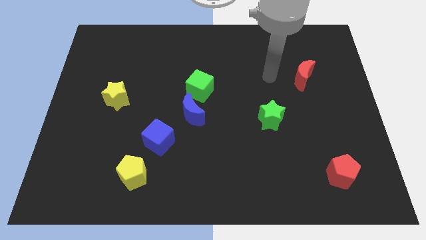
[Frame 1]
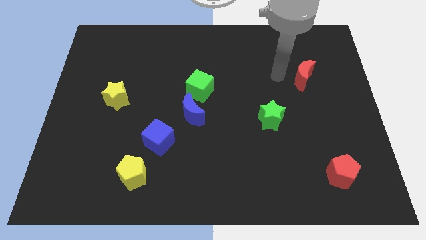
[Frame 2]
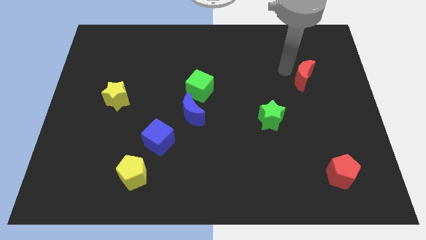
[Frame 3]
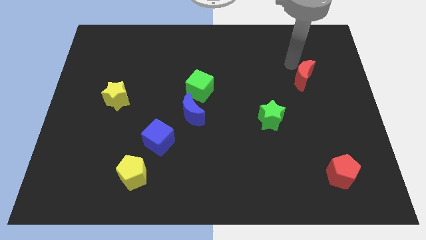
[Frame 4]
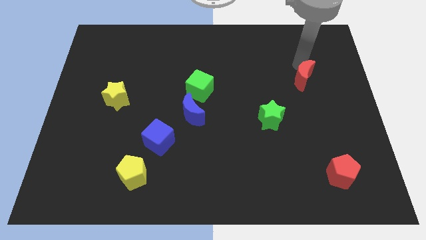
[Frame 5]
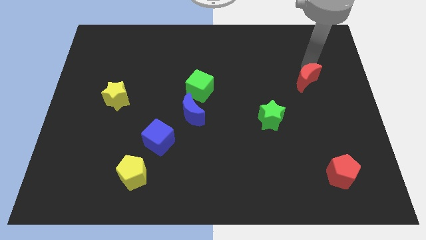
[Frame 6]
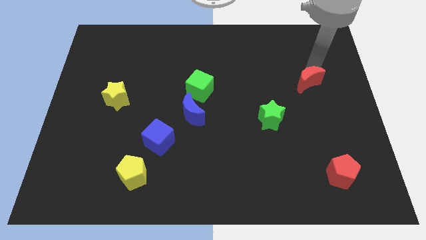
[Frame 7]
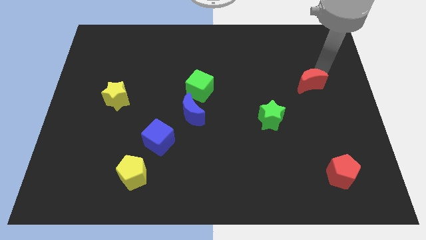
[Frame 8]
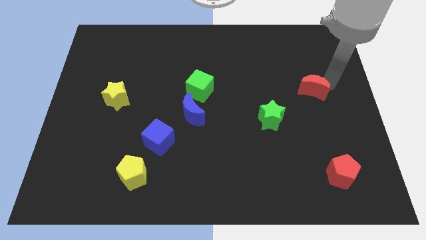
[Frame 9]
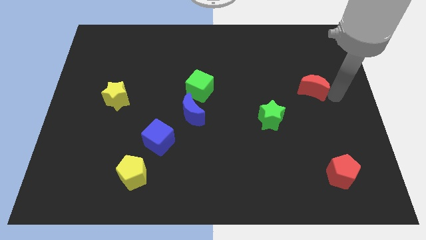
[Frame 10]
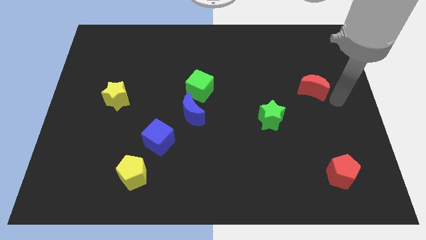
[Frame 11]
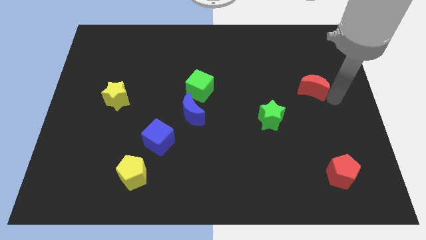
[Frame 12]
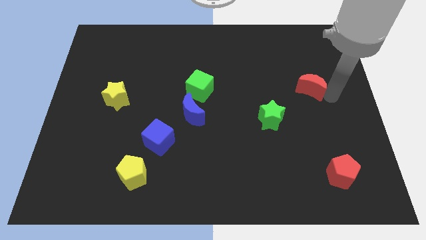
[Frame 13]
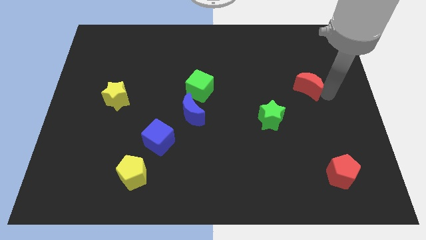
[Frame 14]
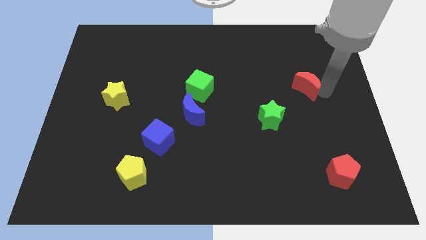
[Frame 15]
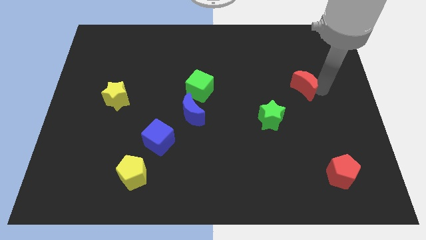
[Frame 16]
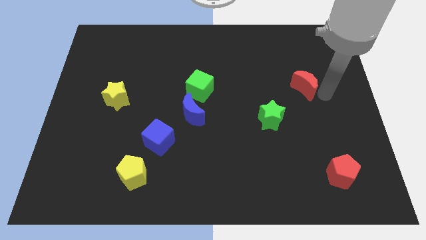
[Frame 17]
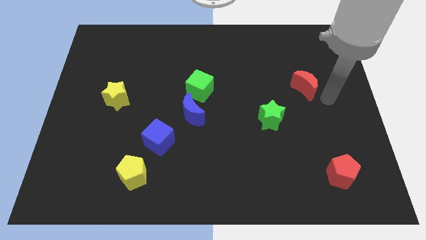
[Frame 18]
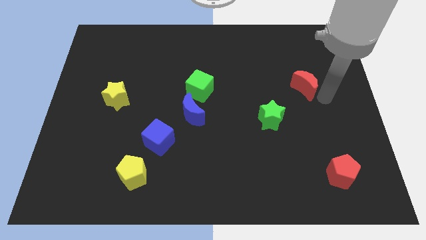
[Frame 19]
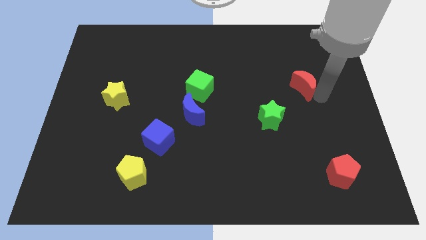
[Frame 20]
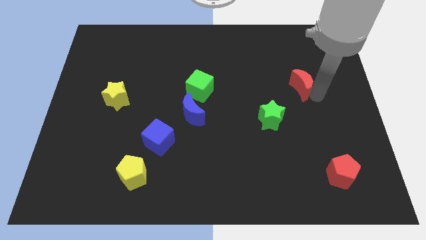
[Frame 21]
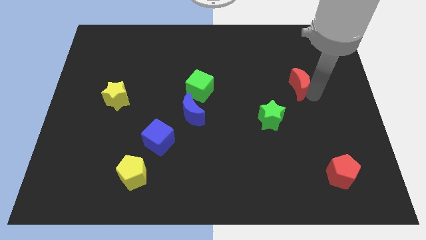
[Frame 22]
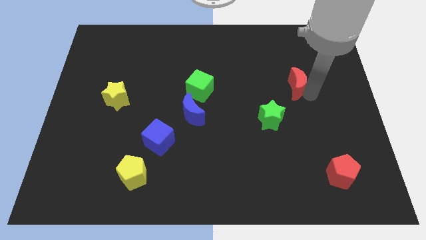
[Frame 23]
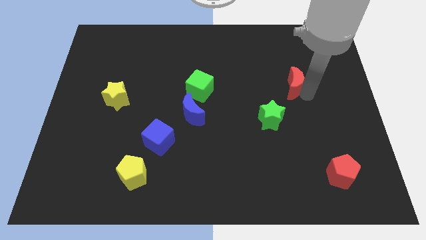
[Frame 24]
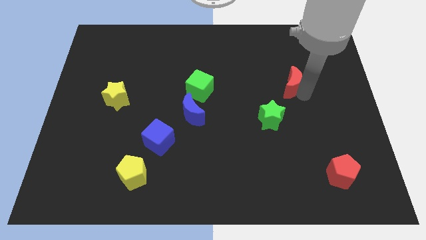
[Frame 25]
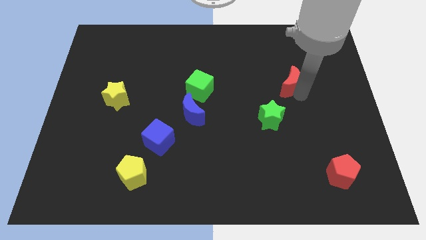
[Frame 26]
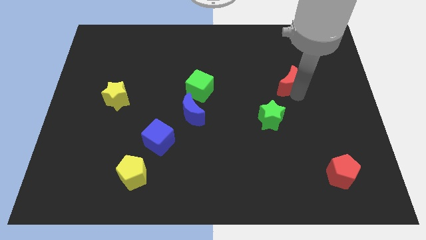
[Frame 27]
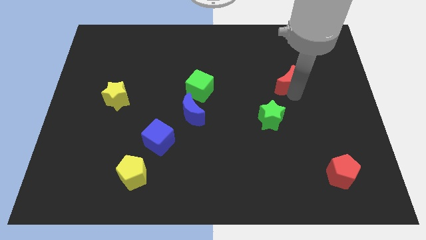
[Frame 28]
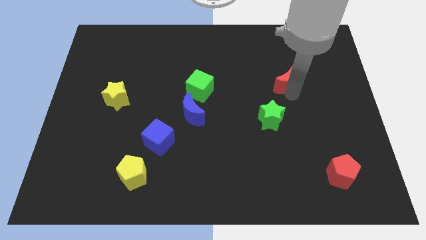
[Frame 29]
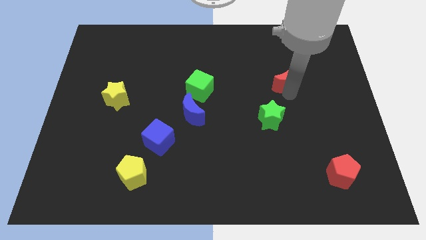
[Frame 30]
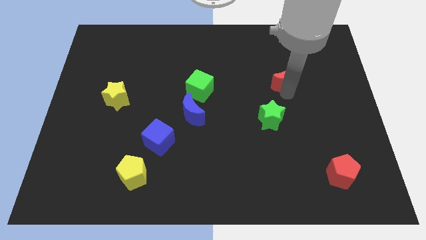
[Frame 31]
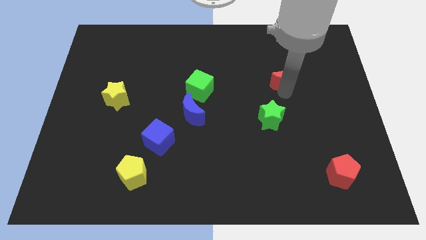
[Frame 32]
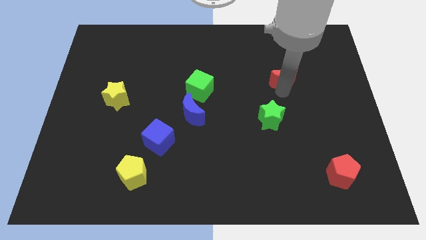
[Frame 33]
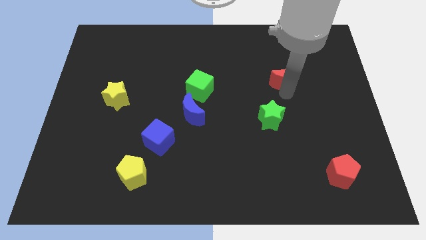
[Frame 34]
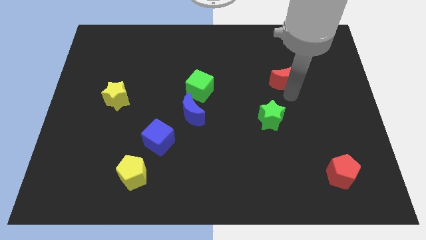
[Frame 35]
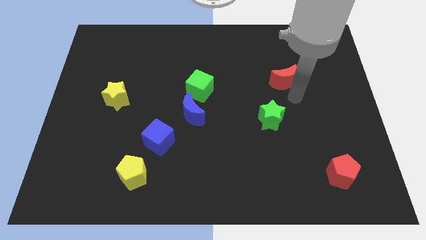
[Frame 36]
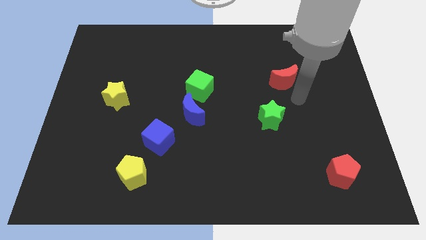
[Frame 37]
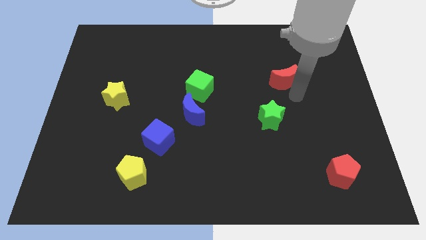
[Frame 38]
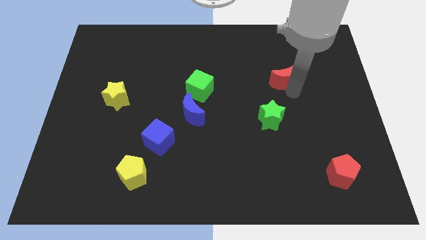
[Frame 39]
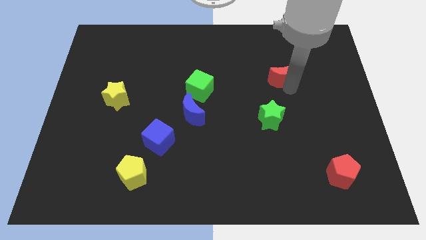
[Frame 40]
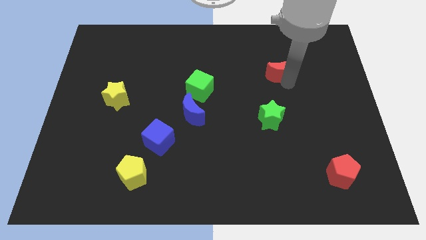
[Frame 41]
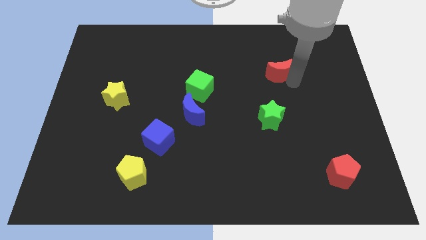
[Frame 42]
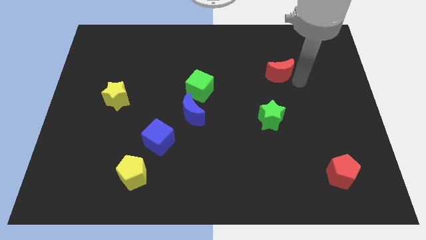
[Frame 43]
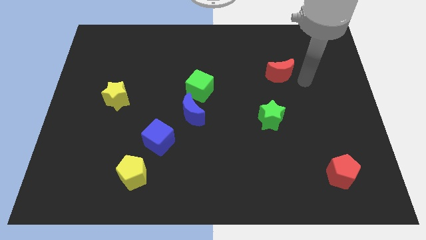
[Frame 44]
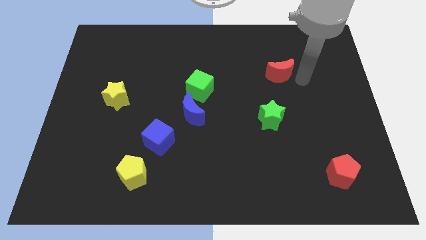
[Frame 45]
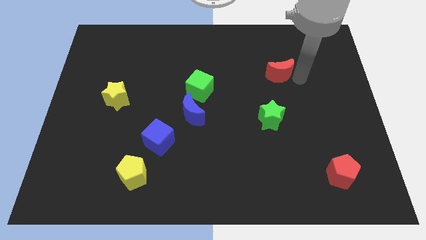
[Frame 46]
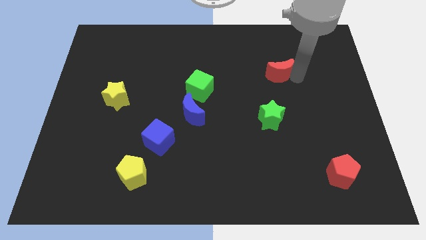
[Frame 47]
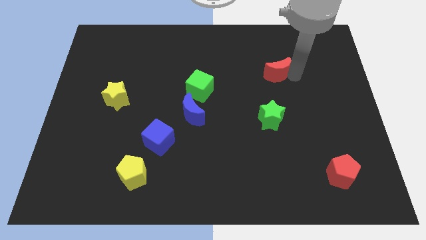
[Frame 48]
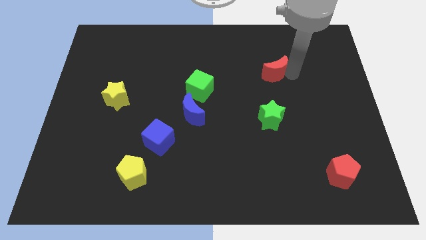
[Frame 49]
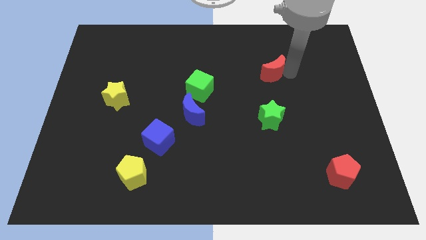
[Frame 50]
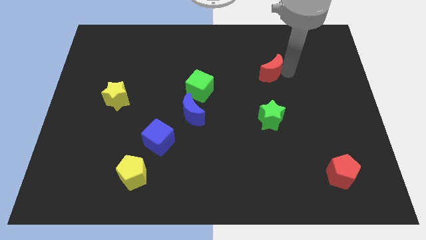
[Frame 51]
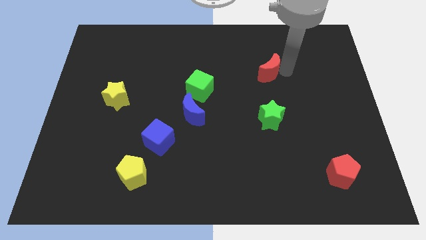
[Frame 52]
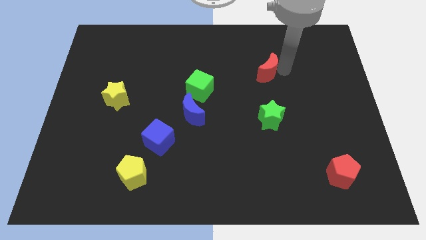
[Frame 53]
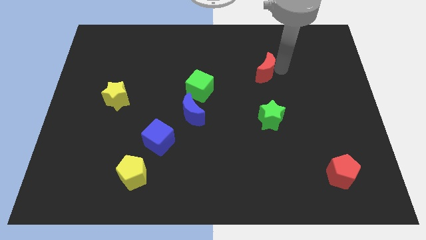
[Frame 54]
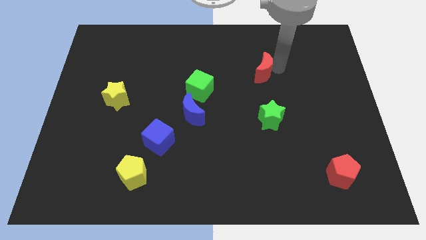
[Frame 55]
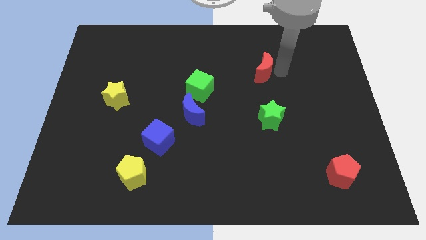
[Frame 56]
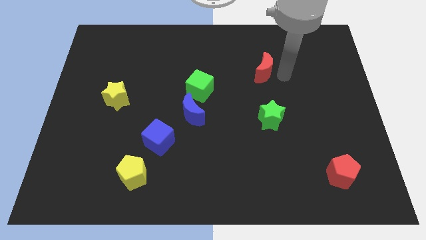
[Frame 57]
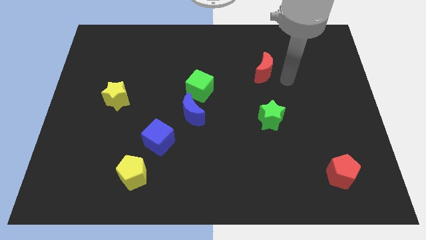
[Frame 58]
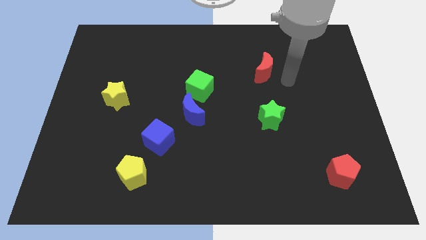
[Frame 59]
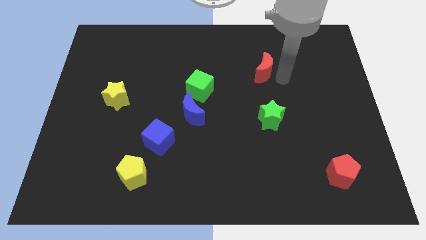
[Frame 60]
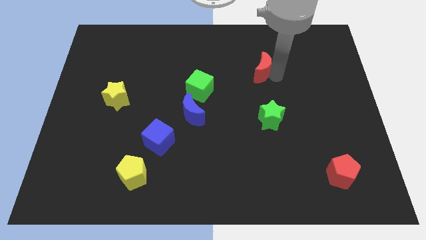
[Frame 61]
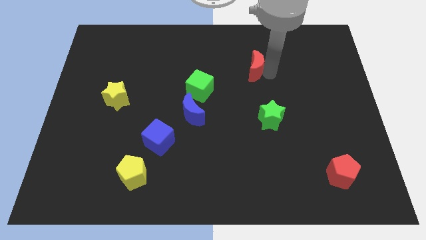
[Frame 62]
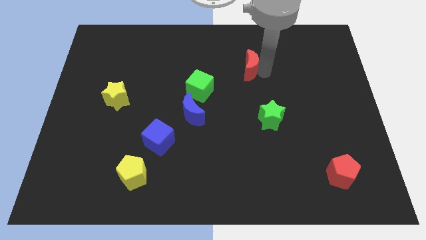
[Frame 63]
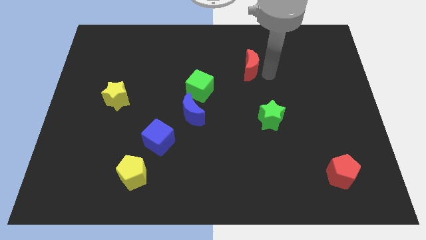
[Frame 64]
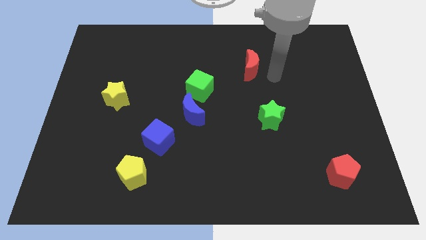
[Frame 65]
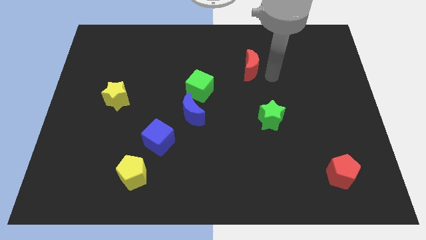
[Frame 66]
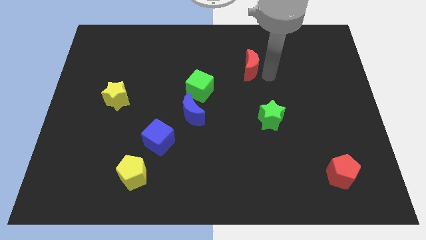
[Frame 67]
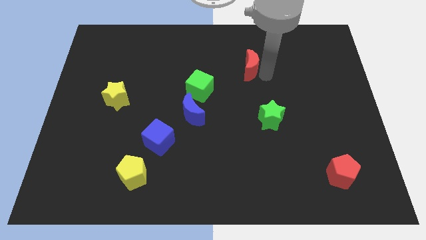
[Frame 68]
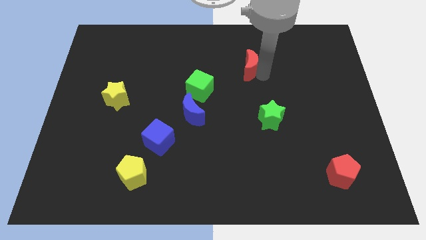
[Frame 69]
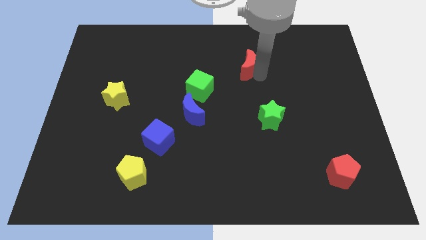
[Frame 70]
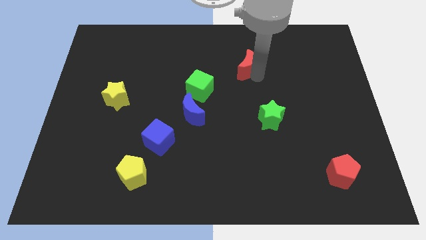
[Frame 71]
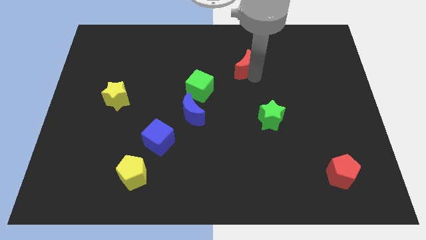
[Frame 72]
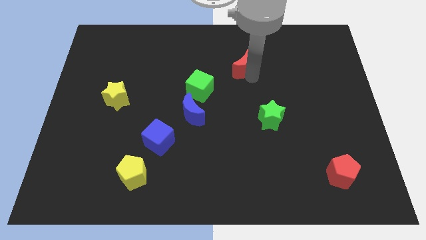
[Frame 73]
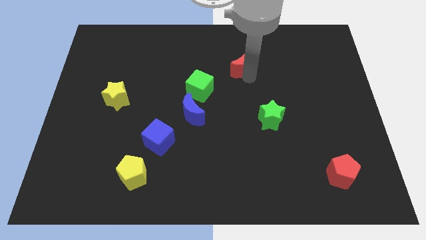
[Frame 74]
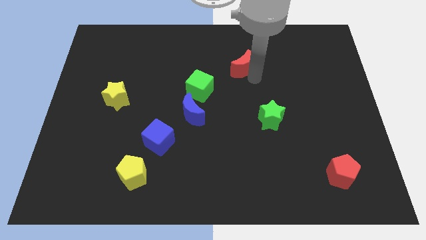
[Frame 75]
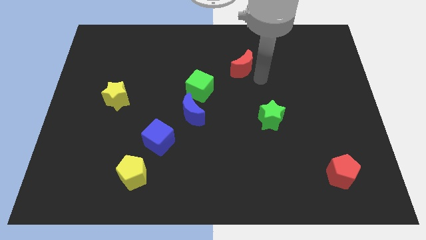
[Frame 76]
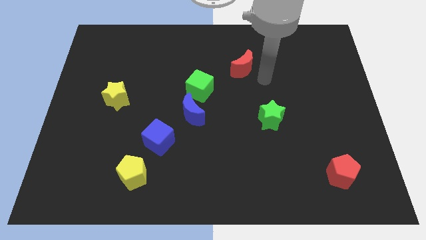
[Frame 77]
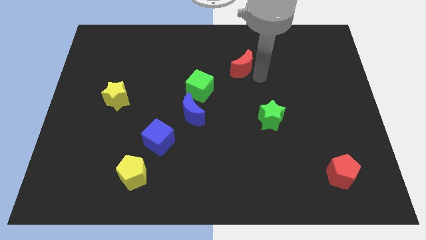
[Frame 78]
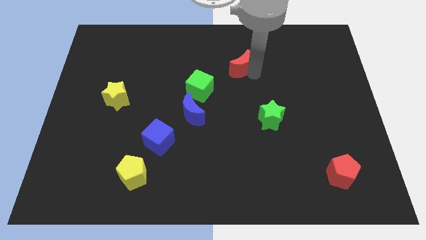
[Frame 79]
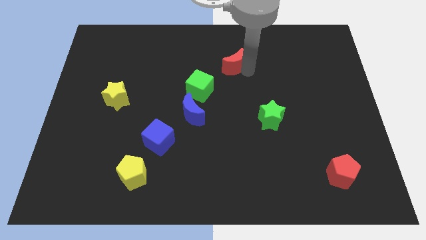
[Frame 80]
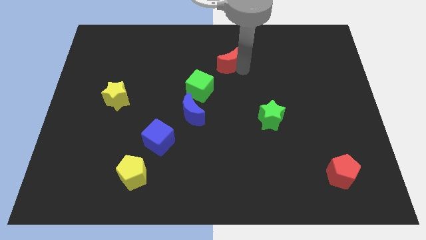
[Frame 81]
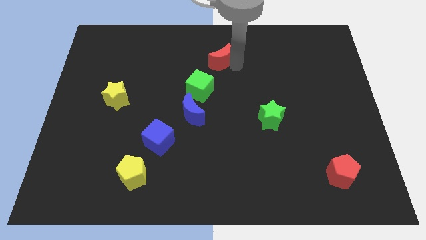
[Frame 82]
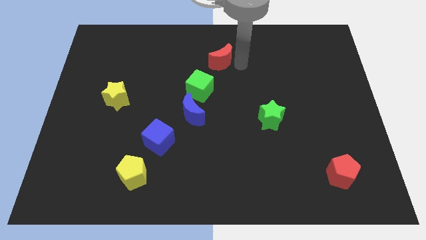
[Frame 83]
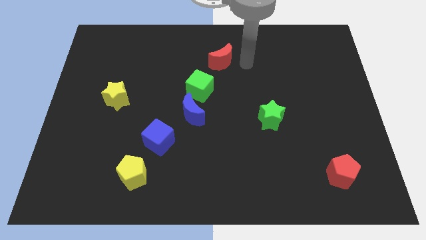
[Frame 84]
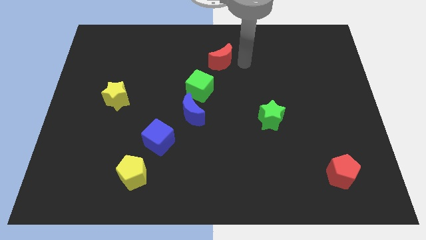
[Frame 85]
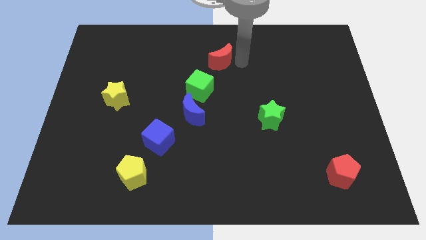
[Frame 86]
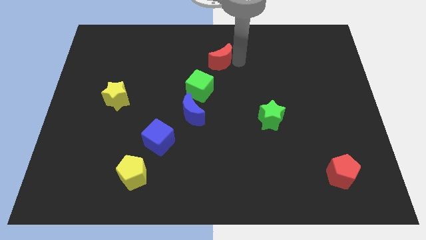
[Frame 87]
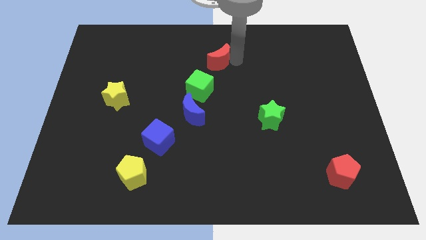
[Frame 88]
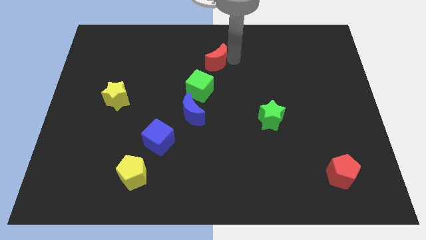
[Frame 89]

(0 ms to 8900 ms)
push the red moon to the top side of the green cube
